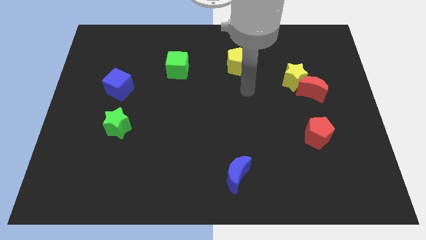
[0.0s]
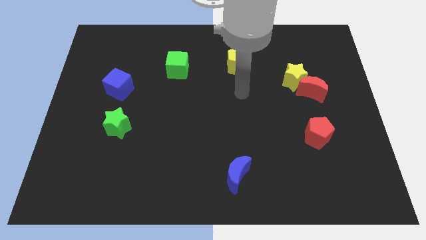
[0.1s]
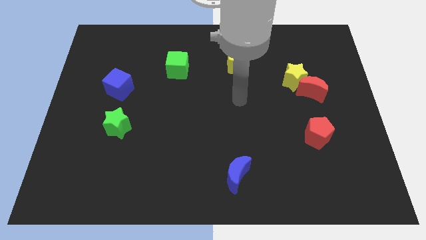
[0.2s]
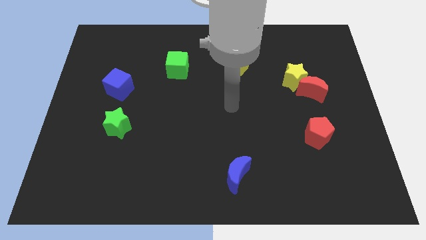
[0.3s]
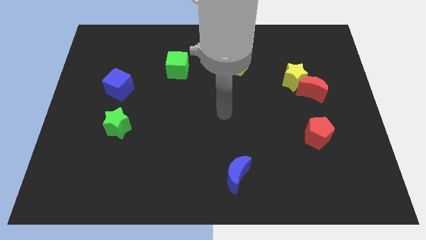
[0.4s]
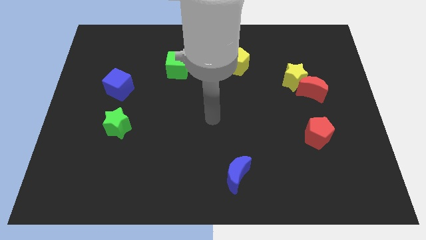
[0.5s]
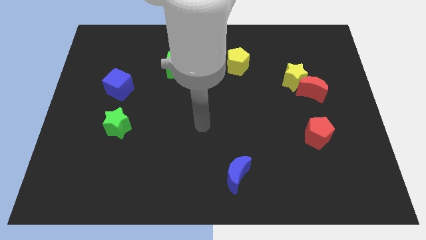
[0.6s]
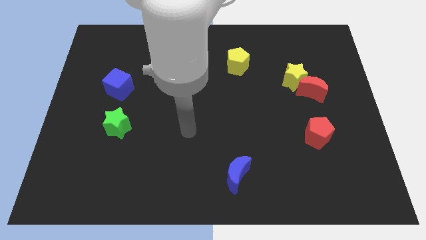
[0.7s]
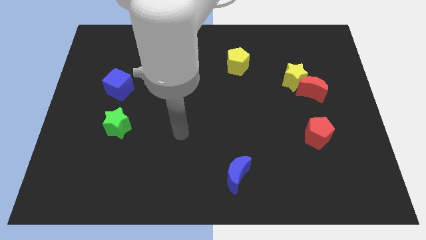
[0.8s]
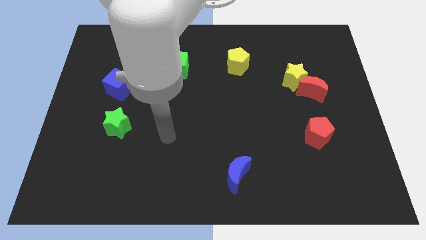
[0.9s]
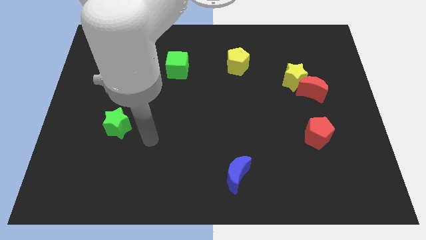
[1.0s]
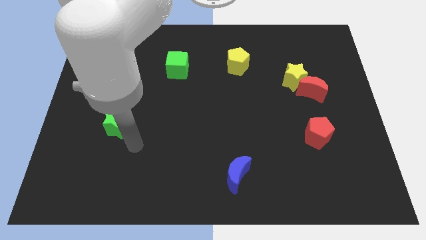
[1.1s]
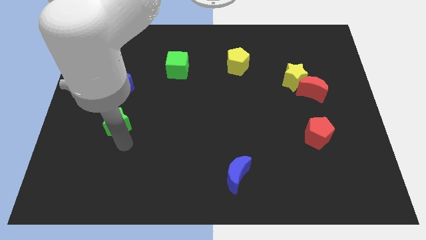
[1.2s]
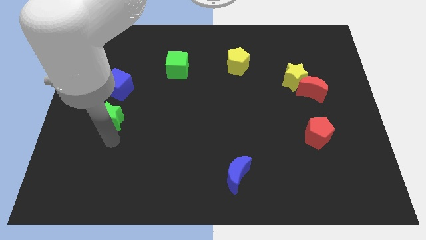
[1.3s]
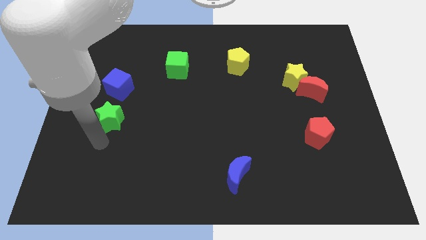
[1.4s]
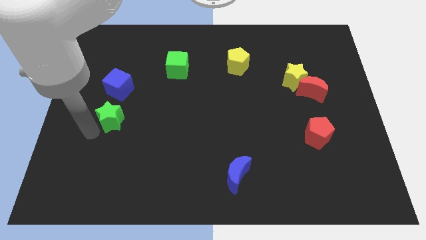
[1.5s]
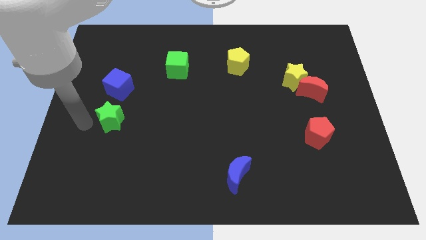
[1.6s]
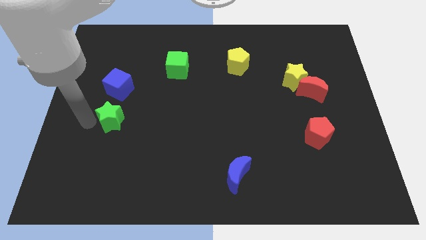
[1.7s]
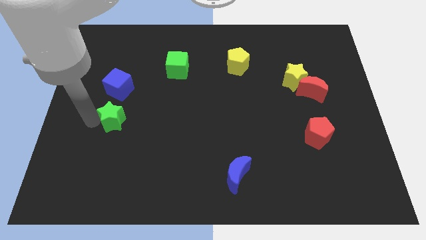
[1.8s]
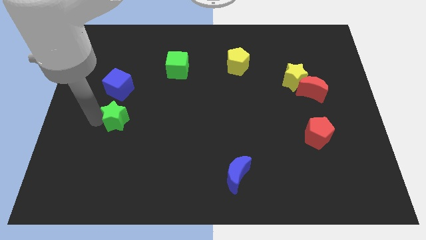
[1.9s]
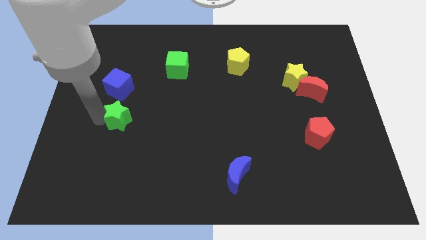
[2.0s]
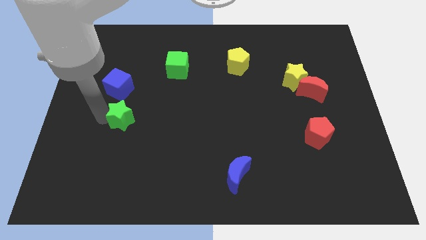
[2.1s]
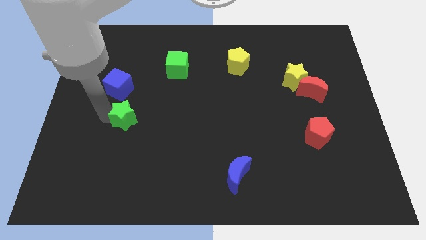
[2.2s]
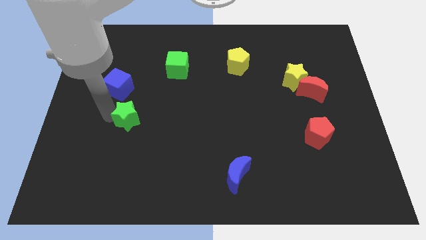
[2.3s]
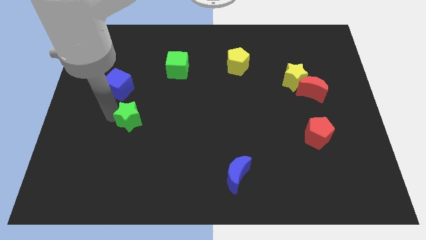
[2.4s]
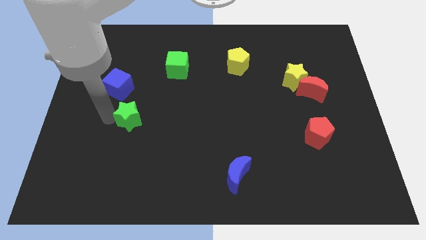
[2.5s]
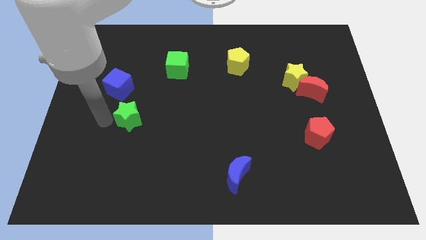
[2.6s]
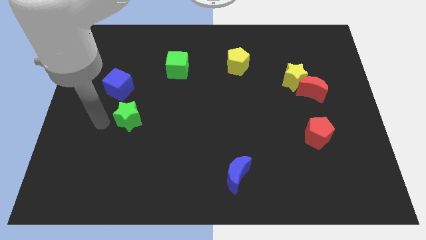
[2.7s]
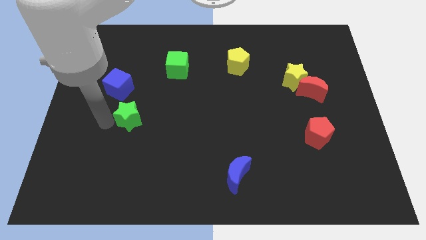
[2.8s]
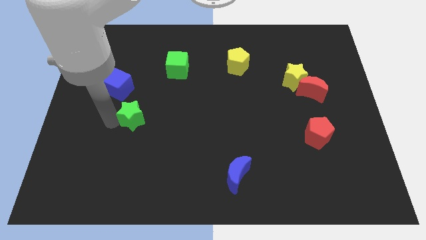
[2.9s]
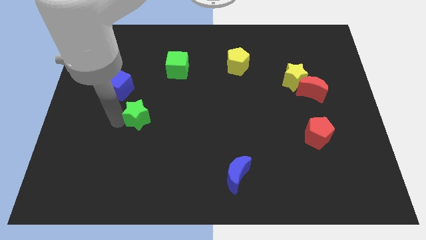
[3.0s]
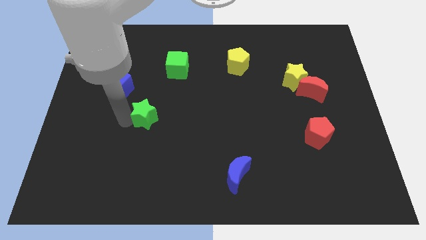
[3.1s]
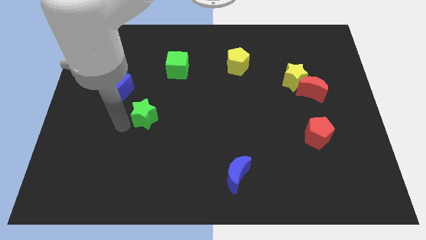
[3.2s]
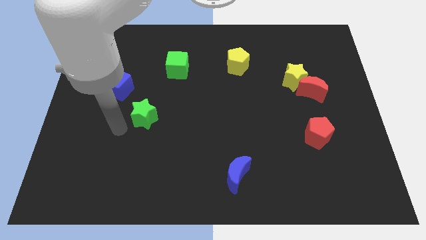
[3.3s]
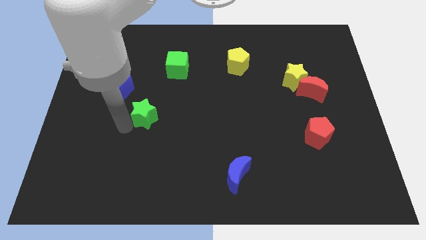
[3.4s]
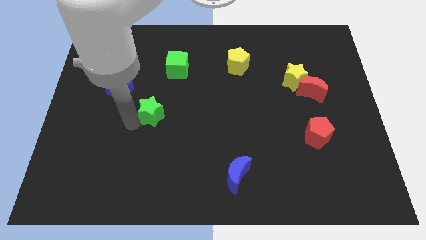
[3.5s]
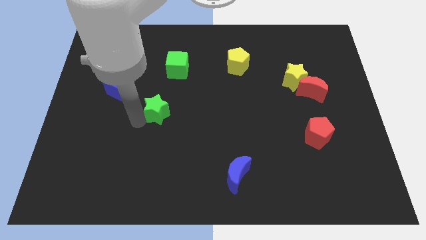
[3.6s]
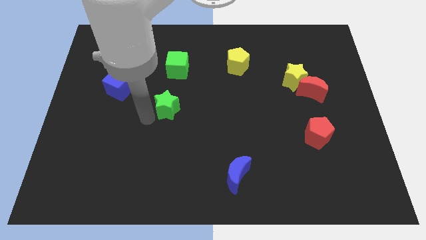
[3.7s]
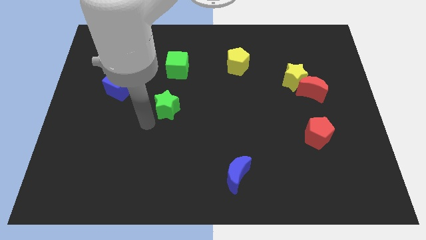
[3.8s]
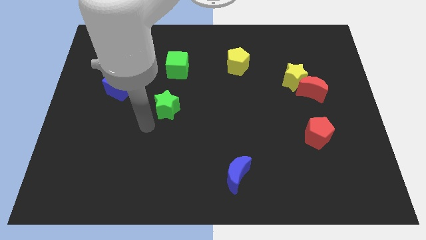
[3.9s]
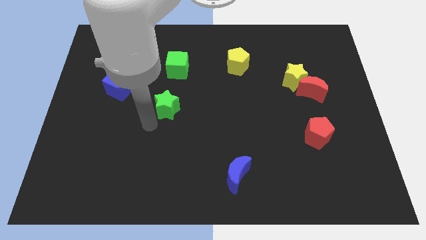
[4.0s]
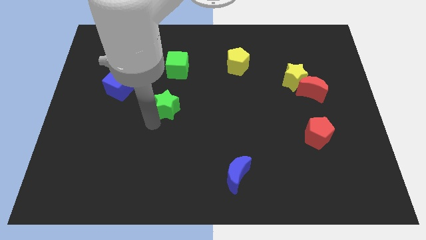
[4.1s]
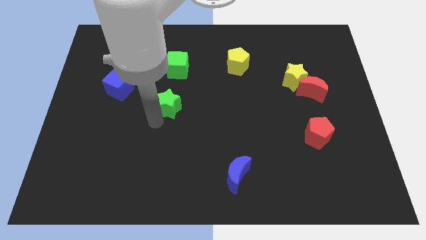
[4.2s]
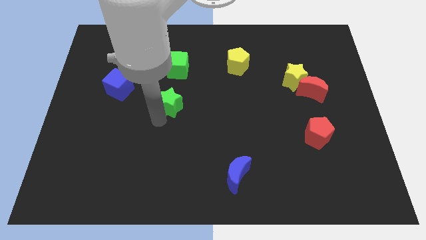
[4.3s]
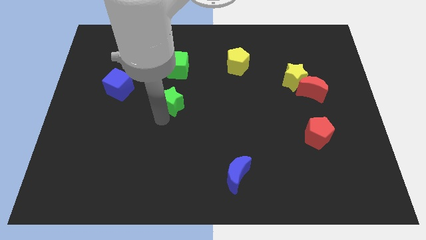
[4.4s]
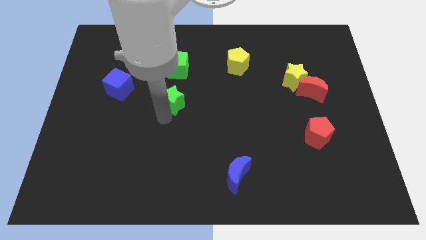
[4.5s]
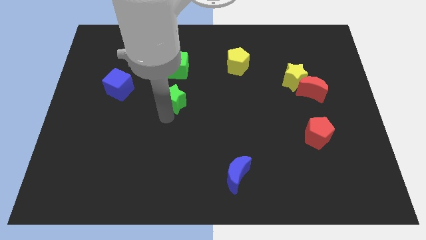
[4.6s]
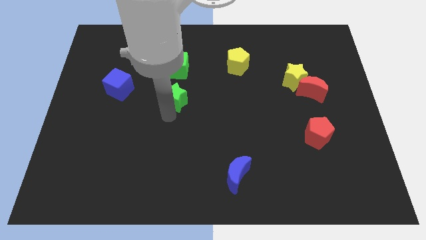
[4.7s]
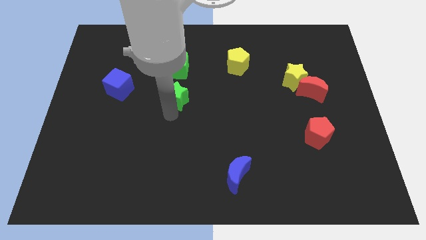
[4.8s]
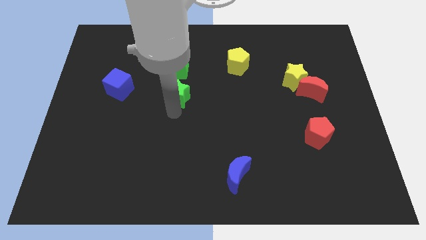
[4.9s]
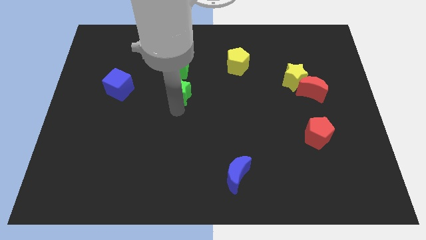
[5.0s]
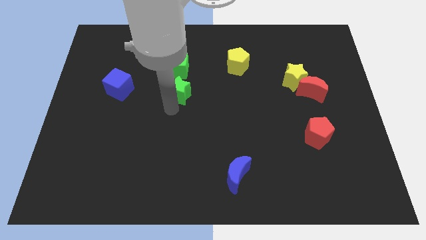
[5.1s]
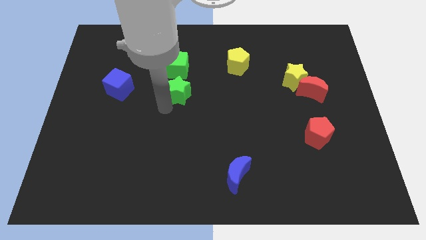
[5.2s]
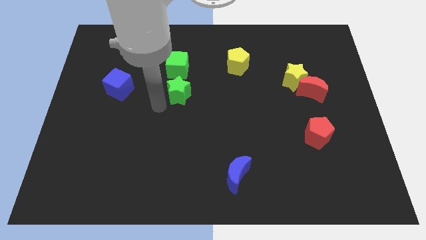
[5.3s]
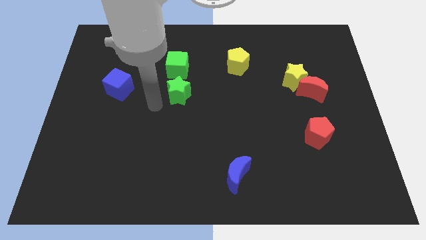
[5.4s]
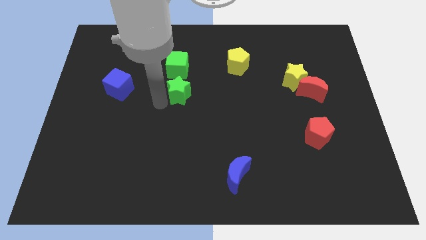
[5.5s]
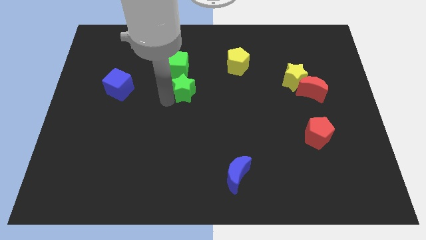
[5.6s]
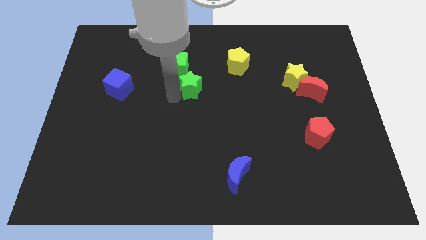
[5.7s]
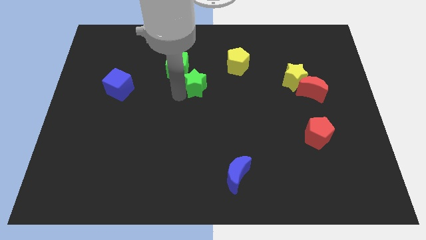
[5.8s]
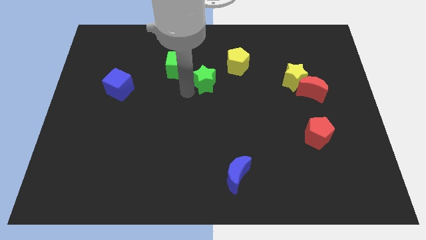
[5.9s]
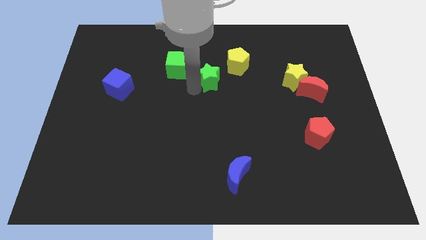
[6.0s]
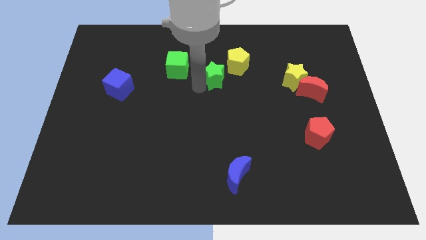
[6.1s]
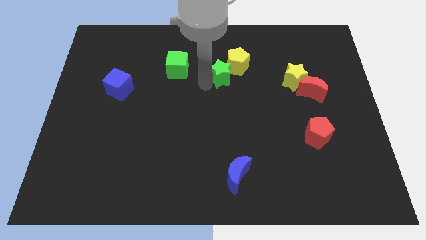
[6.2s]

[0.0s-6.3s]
slide the green star towards the yellow pentagon

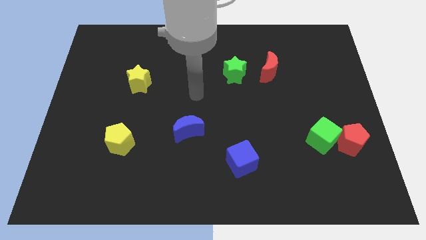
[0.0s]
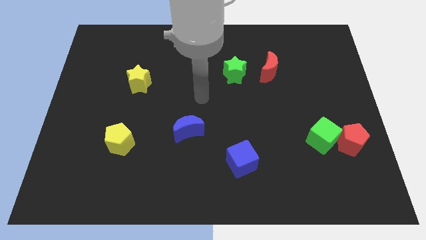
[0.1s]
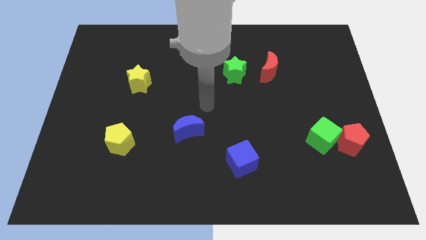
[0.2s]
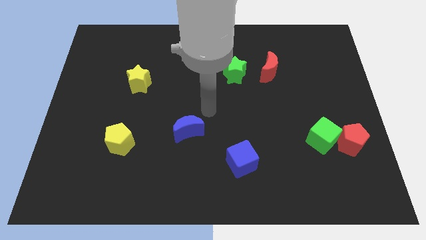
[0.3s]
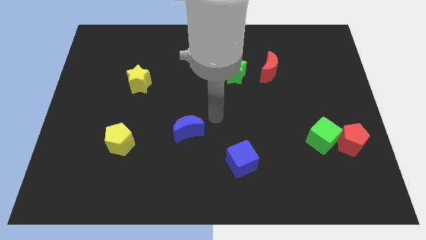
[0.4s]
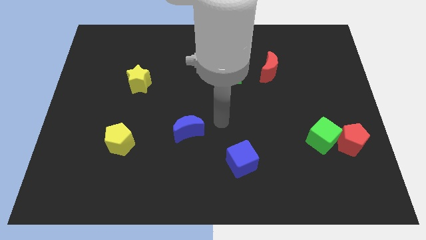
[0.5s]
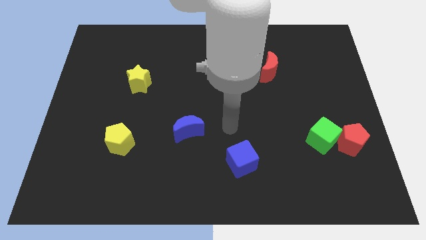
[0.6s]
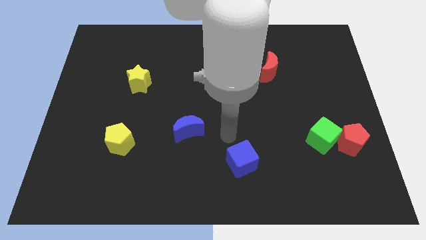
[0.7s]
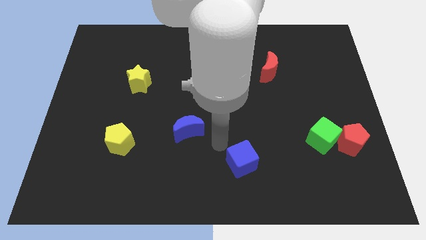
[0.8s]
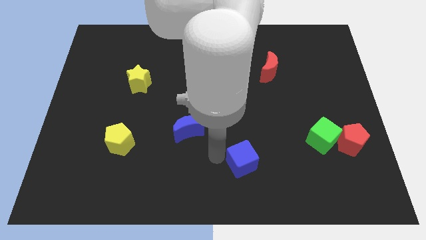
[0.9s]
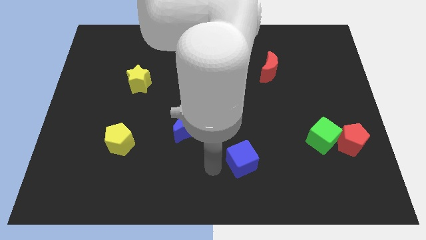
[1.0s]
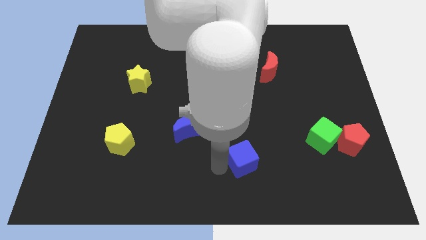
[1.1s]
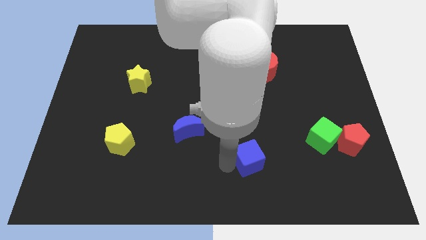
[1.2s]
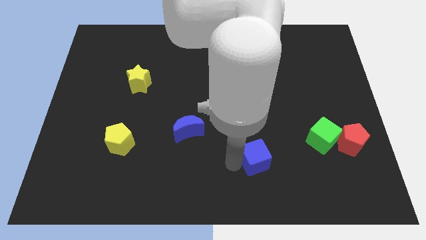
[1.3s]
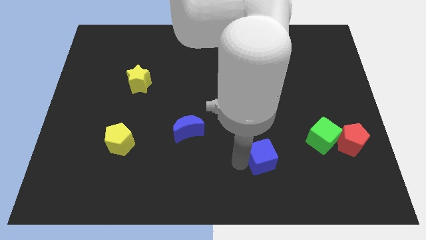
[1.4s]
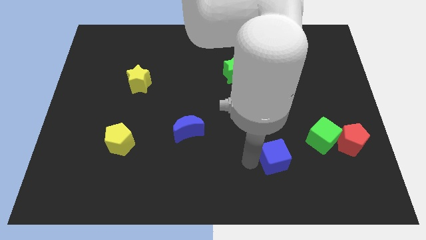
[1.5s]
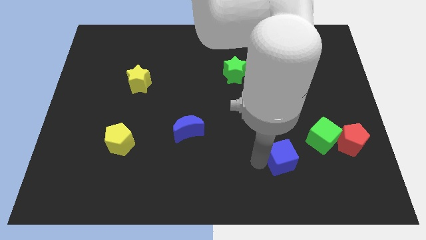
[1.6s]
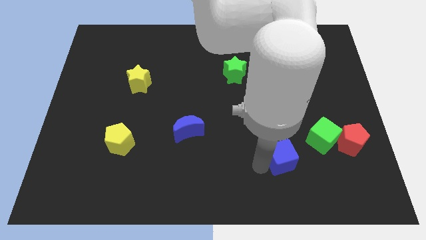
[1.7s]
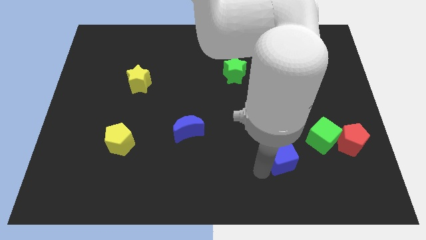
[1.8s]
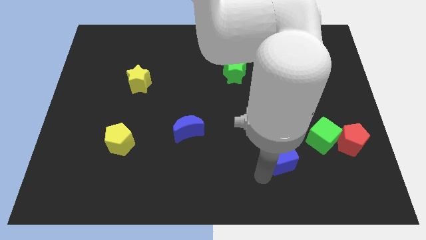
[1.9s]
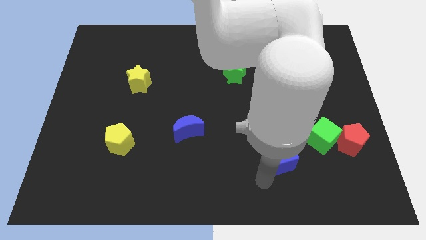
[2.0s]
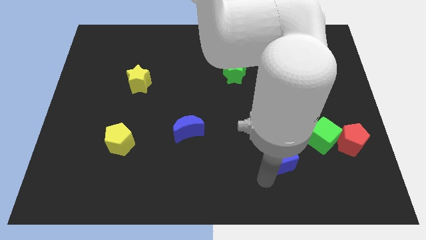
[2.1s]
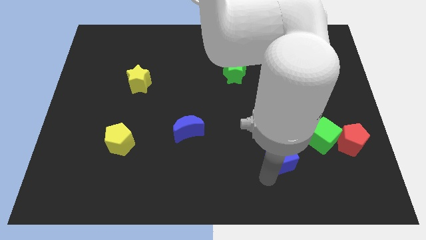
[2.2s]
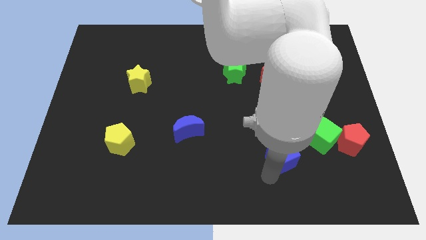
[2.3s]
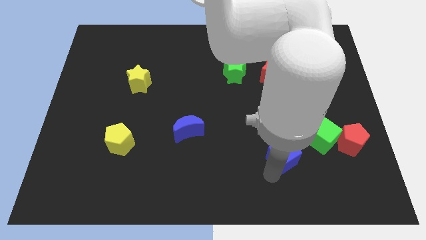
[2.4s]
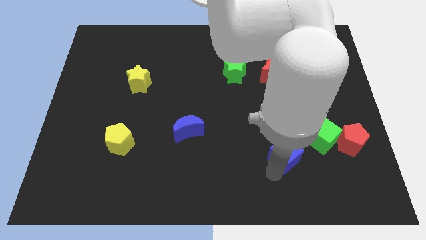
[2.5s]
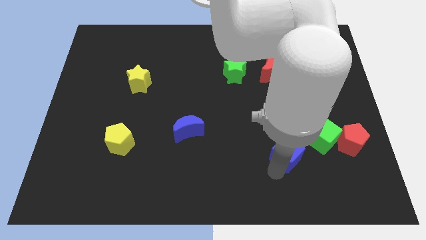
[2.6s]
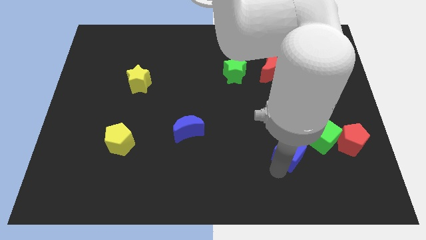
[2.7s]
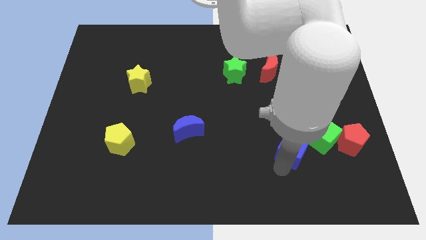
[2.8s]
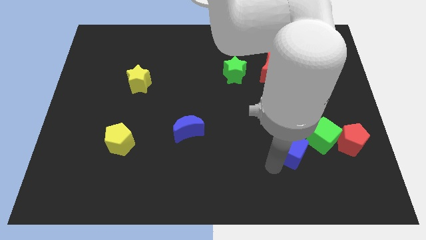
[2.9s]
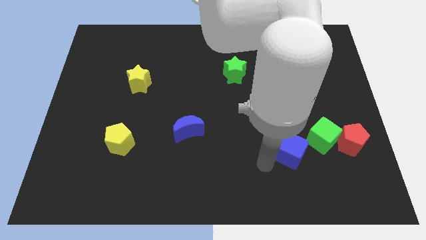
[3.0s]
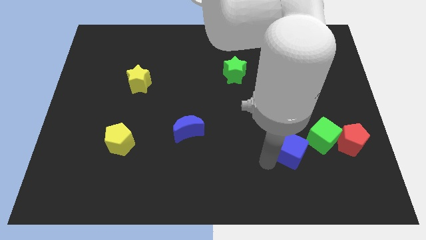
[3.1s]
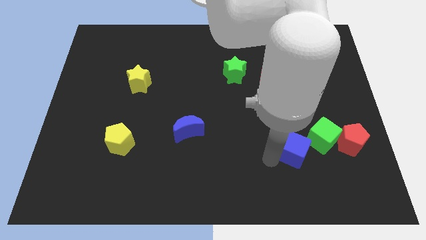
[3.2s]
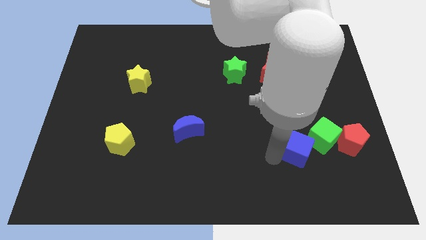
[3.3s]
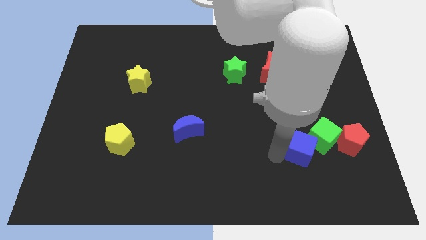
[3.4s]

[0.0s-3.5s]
move the blue cube next to the green cube
